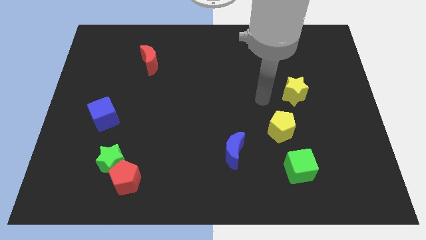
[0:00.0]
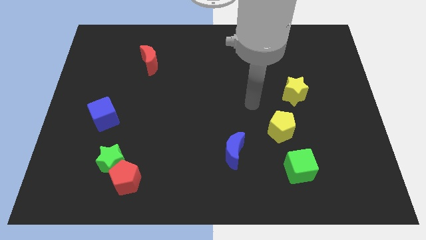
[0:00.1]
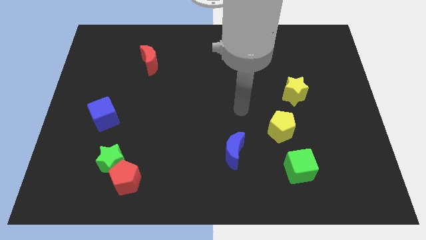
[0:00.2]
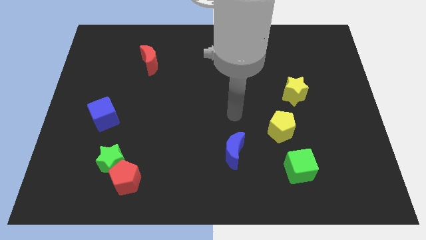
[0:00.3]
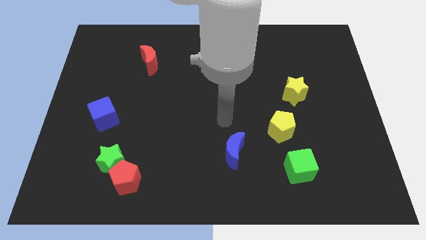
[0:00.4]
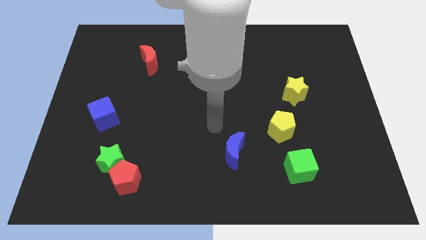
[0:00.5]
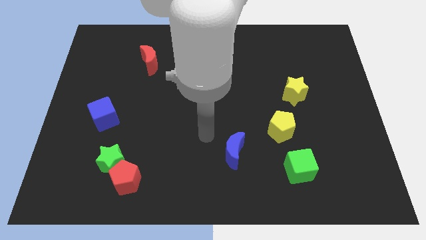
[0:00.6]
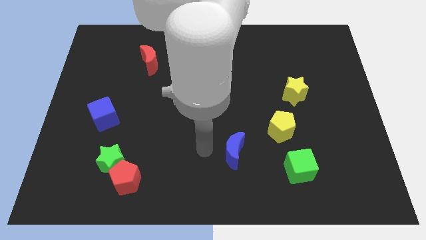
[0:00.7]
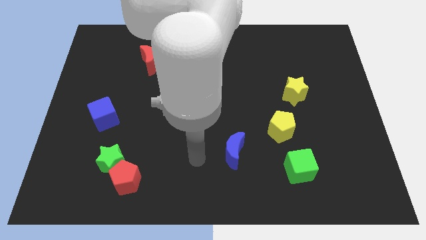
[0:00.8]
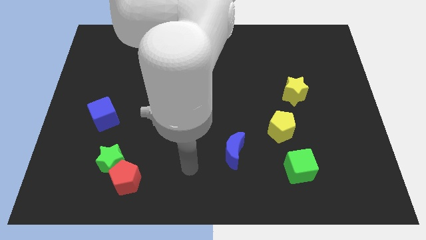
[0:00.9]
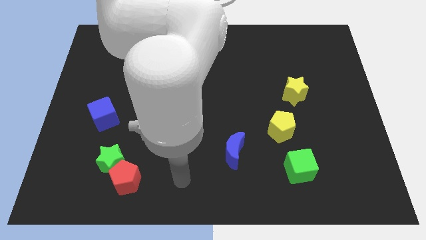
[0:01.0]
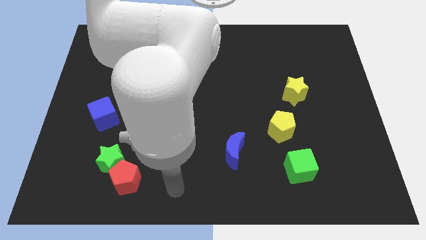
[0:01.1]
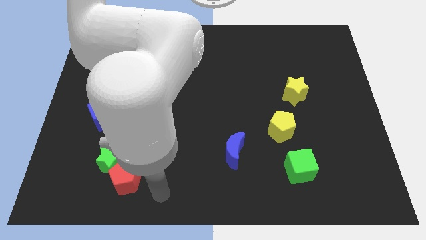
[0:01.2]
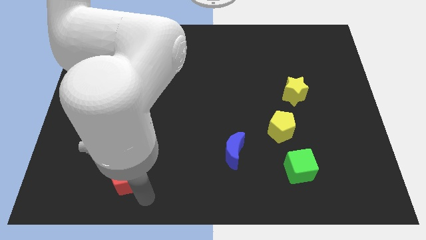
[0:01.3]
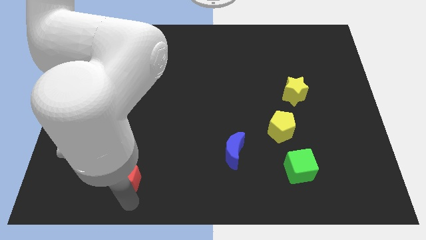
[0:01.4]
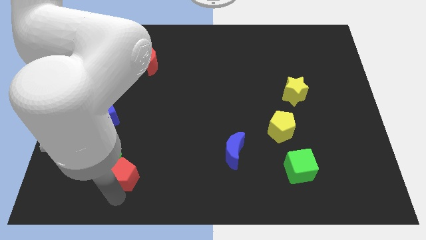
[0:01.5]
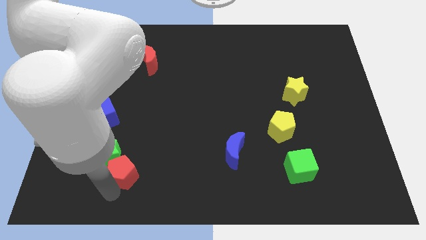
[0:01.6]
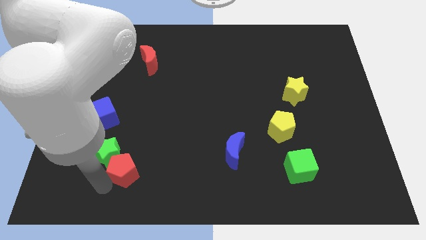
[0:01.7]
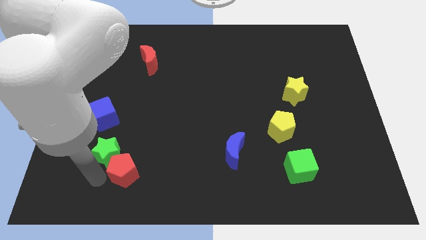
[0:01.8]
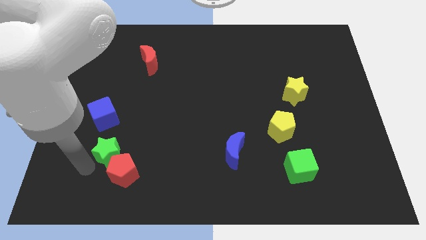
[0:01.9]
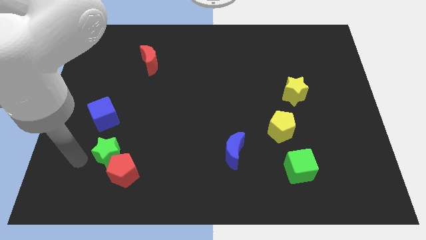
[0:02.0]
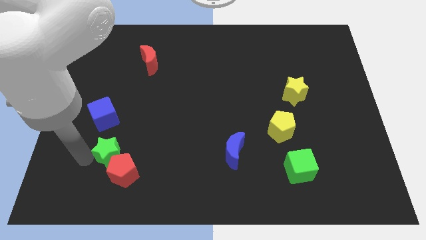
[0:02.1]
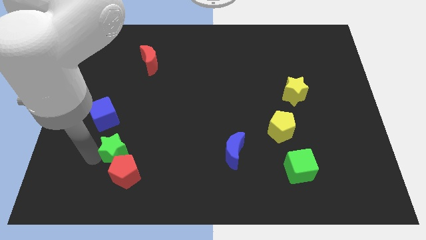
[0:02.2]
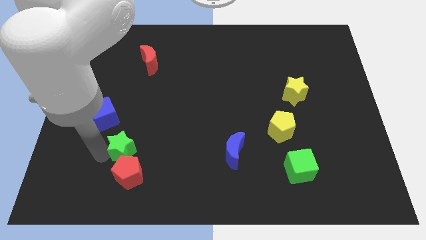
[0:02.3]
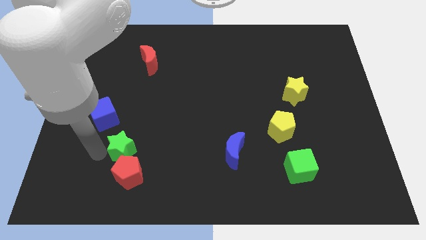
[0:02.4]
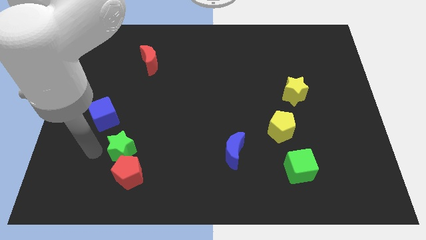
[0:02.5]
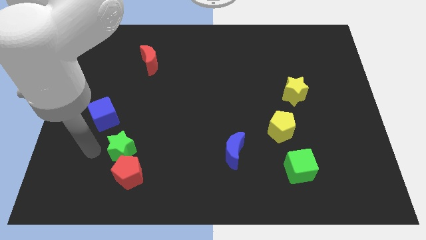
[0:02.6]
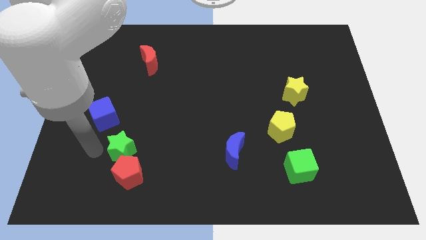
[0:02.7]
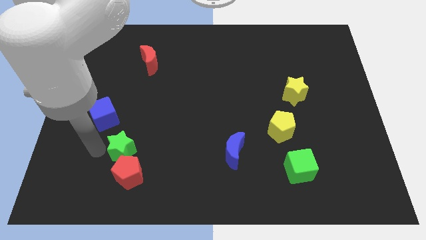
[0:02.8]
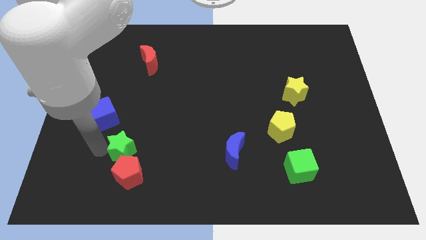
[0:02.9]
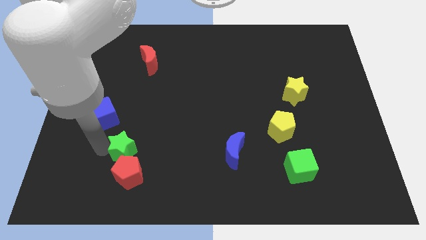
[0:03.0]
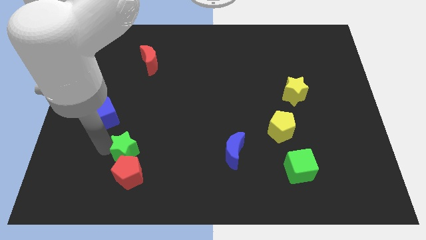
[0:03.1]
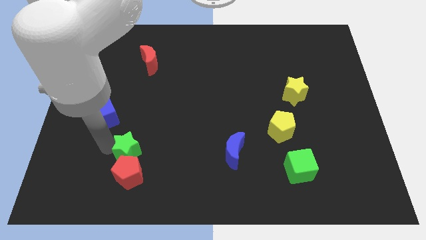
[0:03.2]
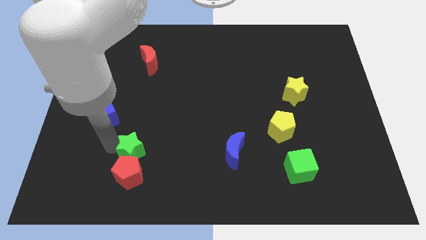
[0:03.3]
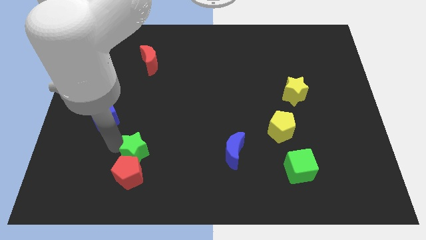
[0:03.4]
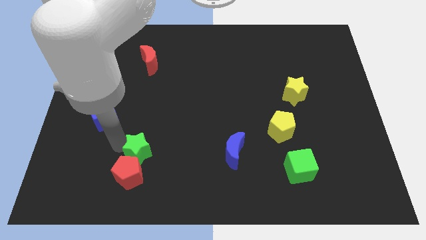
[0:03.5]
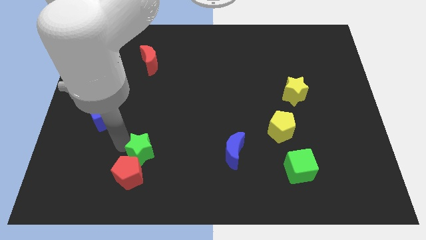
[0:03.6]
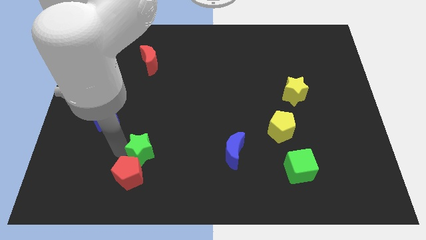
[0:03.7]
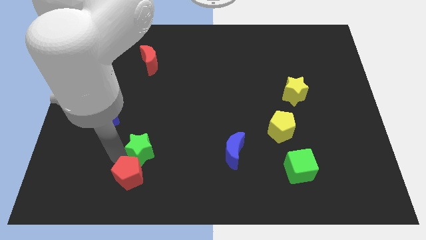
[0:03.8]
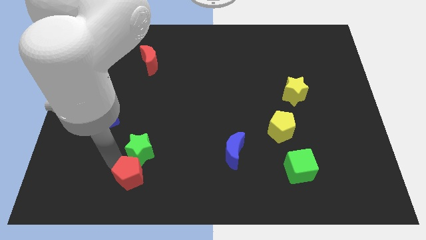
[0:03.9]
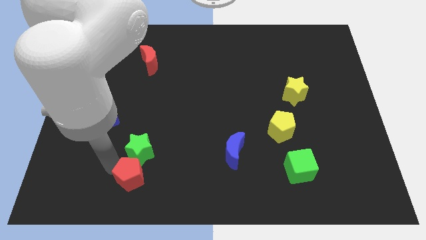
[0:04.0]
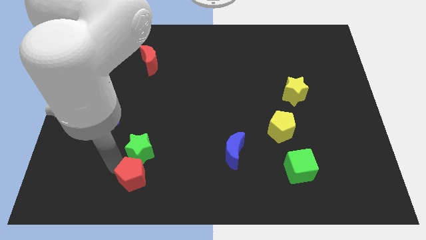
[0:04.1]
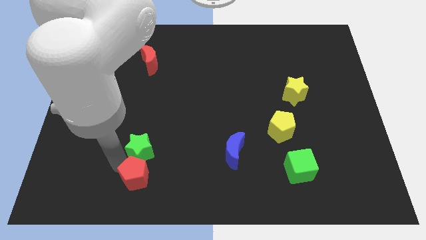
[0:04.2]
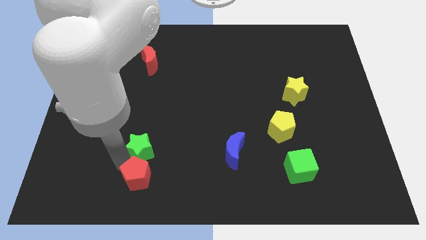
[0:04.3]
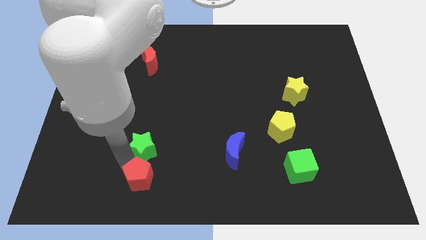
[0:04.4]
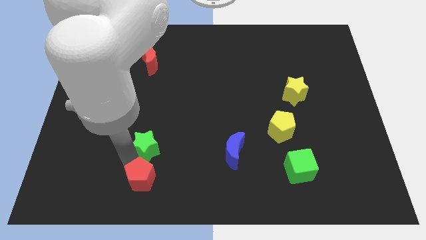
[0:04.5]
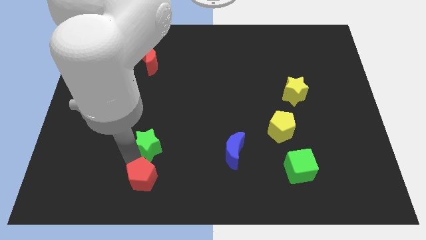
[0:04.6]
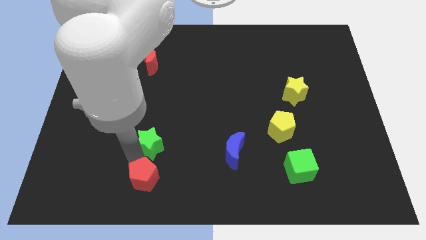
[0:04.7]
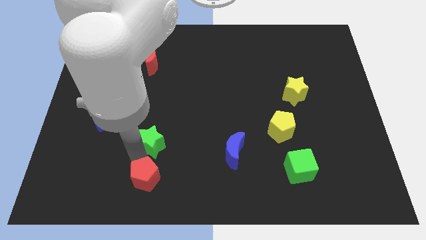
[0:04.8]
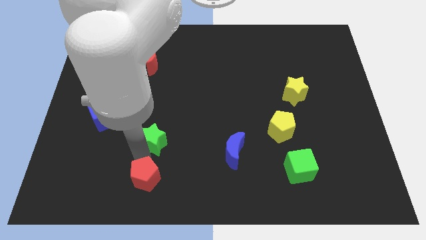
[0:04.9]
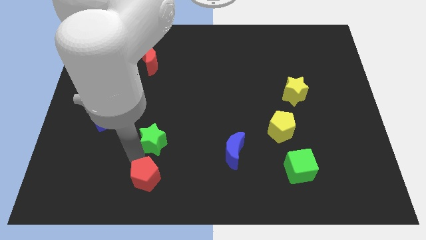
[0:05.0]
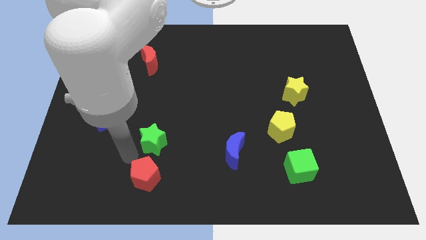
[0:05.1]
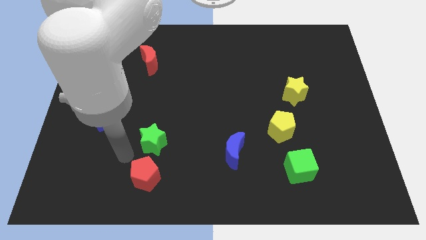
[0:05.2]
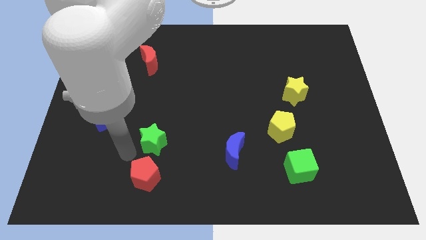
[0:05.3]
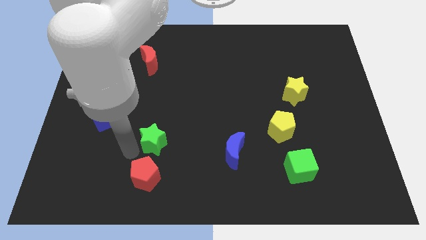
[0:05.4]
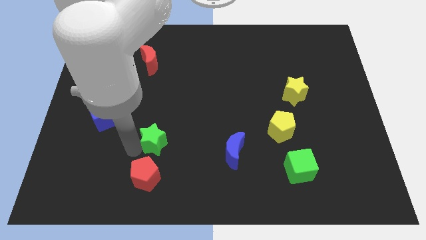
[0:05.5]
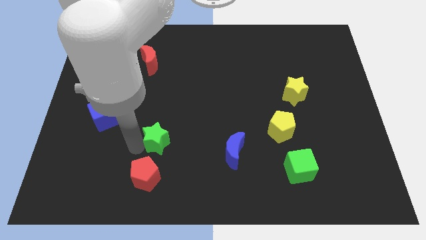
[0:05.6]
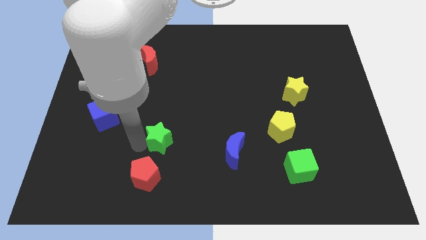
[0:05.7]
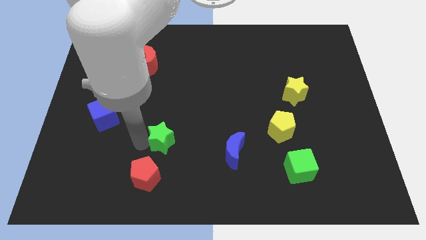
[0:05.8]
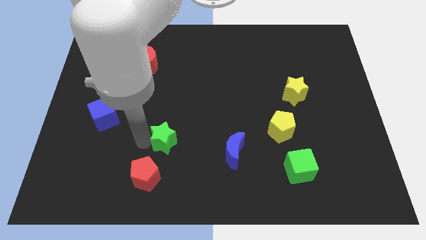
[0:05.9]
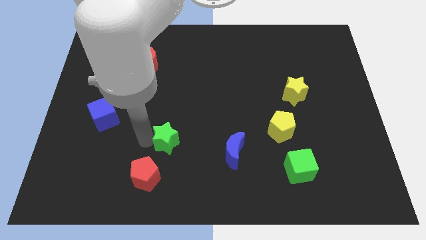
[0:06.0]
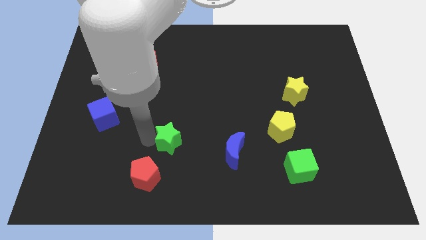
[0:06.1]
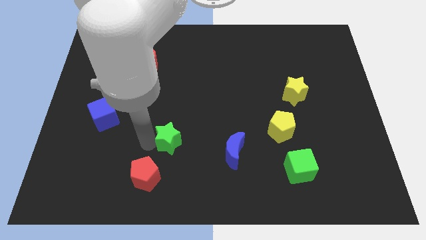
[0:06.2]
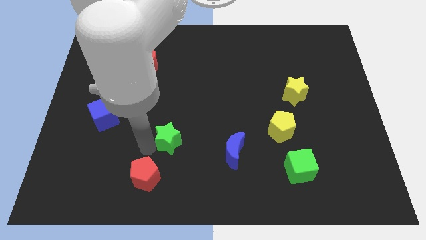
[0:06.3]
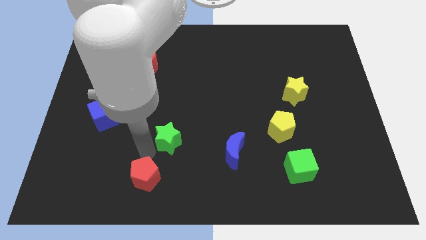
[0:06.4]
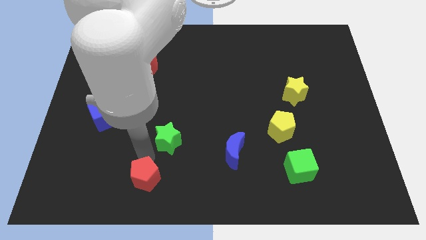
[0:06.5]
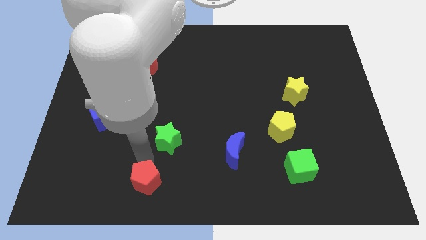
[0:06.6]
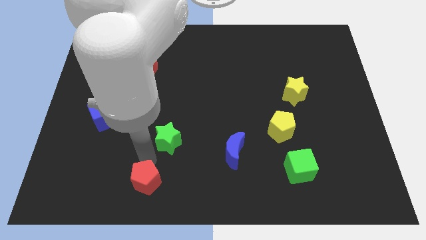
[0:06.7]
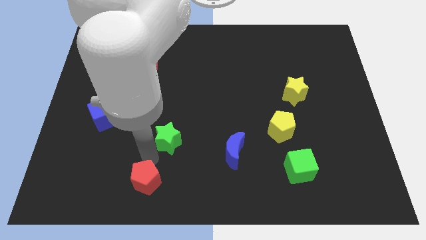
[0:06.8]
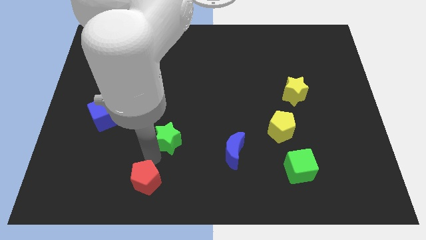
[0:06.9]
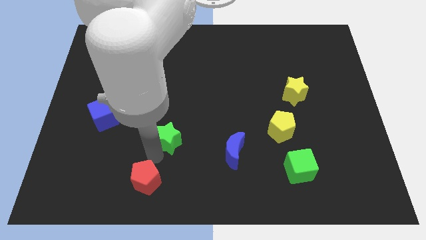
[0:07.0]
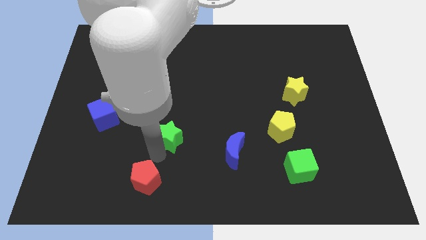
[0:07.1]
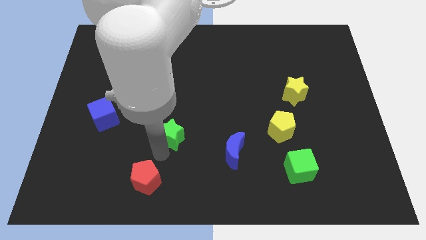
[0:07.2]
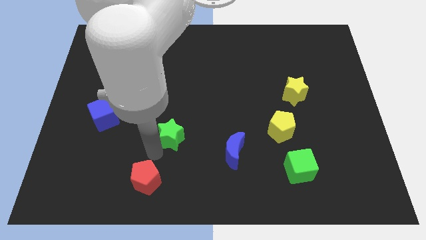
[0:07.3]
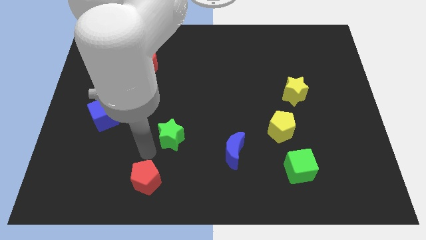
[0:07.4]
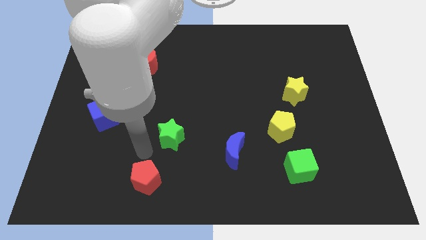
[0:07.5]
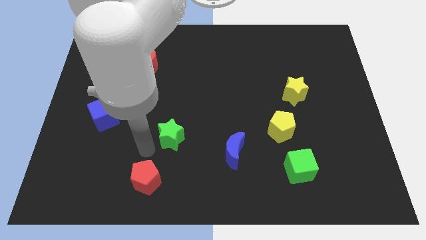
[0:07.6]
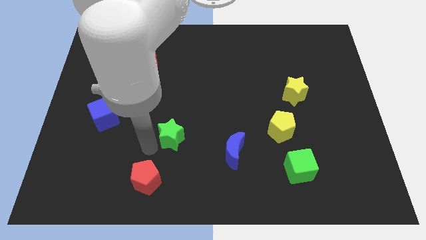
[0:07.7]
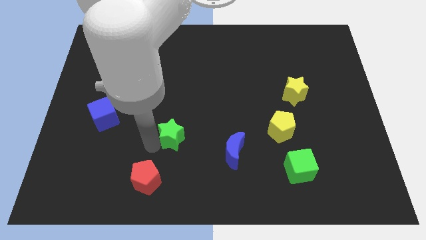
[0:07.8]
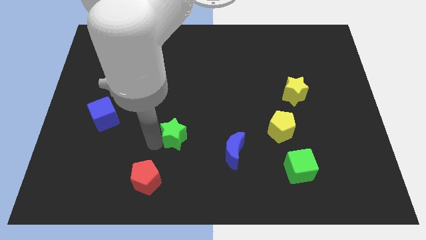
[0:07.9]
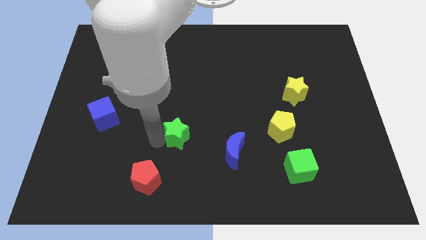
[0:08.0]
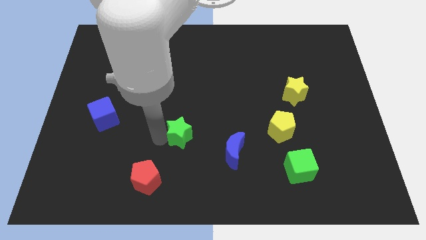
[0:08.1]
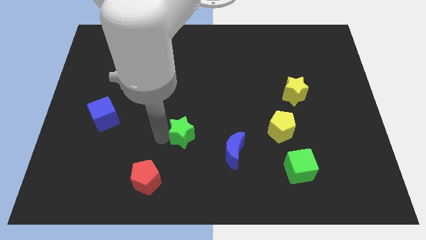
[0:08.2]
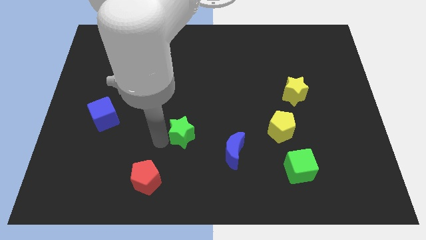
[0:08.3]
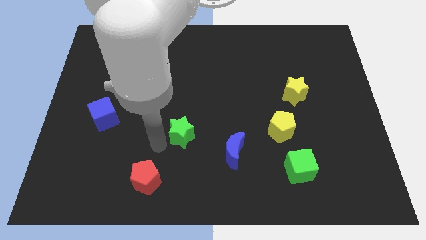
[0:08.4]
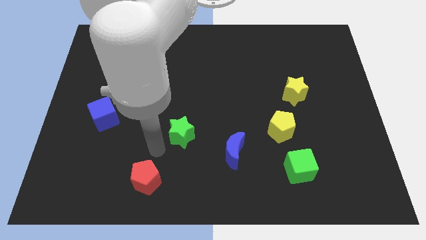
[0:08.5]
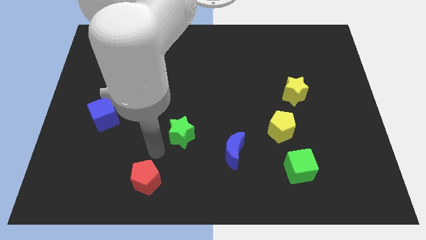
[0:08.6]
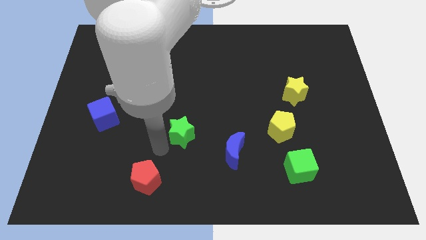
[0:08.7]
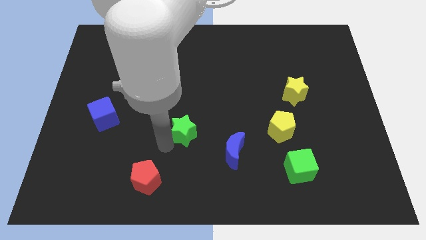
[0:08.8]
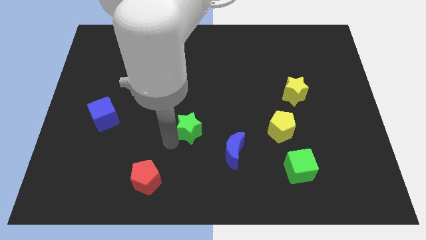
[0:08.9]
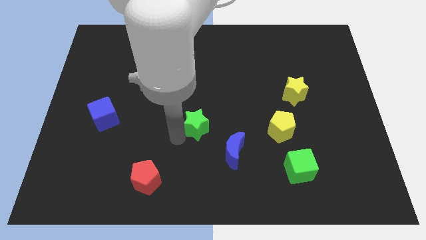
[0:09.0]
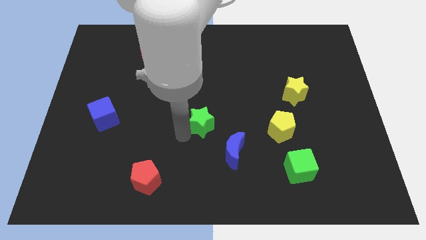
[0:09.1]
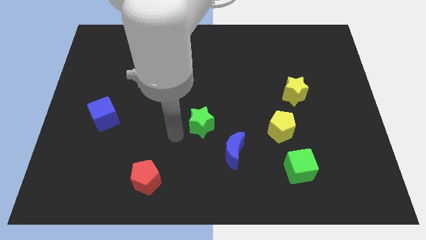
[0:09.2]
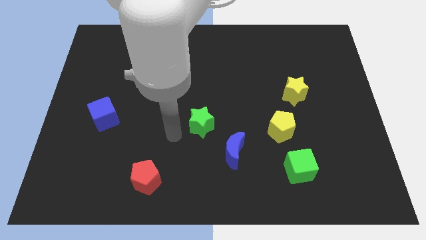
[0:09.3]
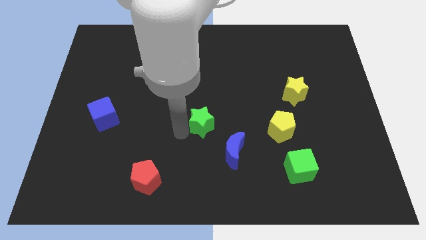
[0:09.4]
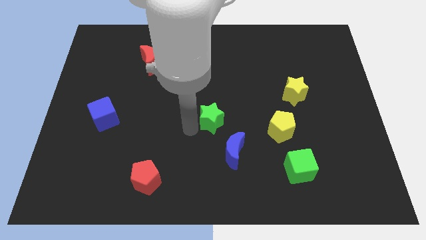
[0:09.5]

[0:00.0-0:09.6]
move the green star to the top side of the blue moon
